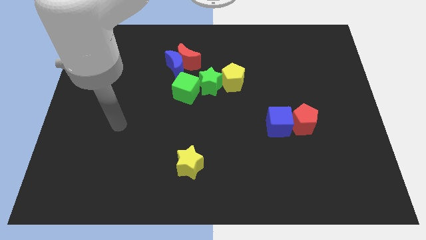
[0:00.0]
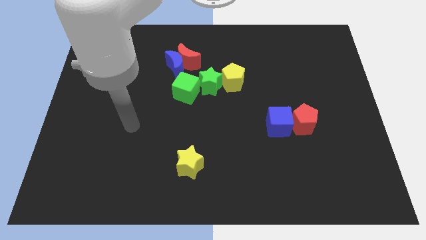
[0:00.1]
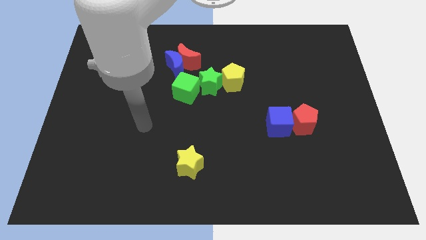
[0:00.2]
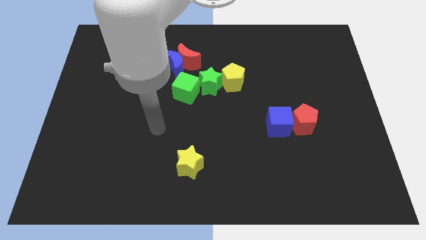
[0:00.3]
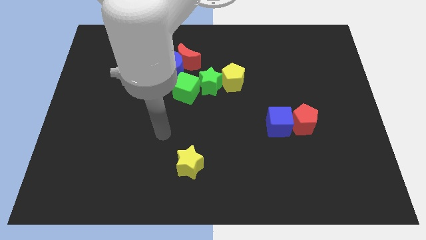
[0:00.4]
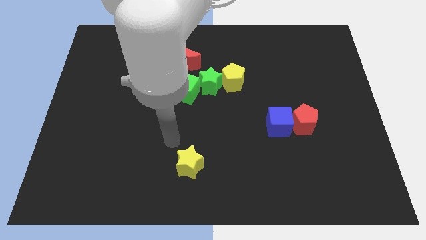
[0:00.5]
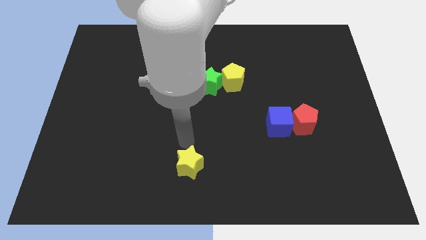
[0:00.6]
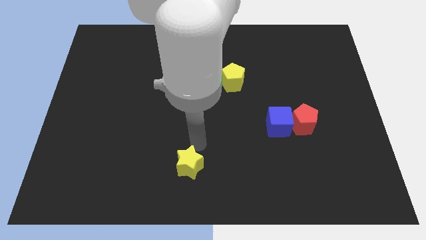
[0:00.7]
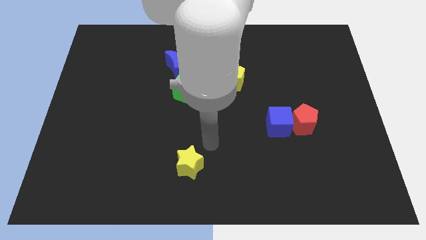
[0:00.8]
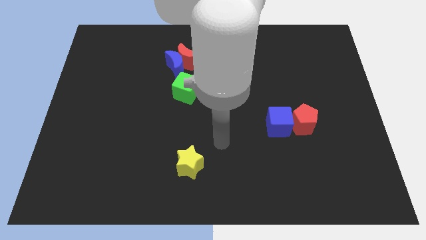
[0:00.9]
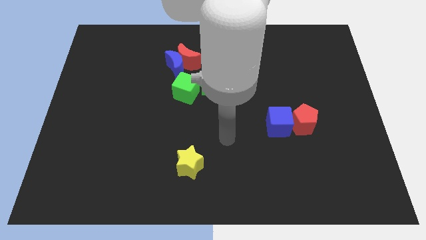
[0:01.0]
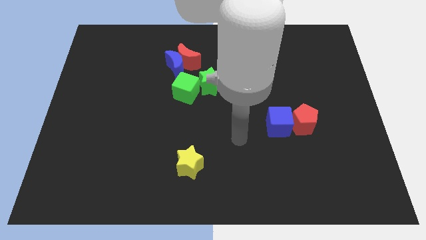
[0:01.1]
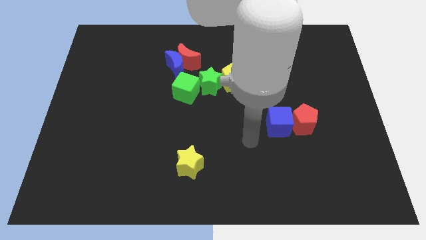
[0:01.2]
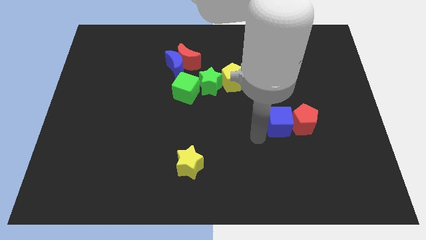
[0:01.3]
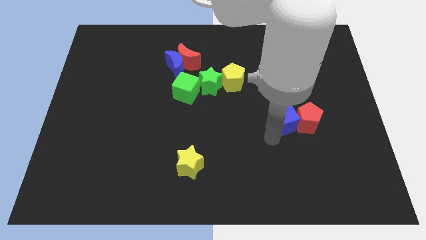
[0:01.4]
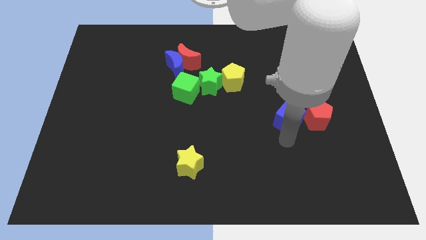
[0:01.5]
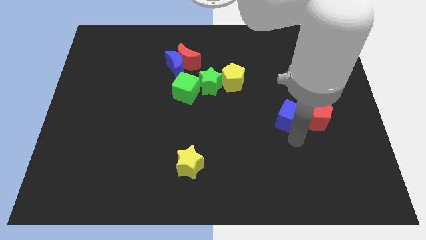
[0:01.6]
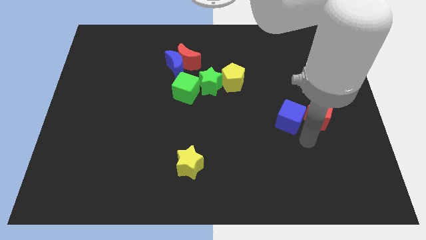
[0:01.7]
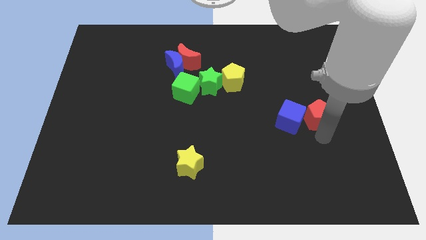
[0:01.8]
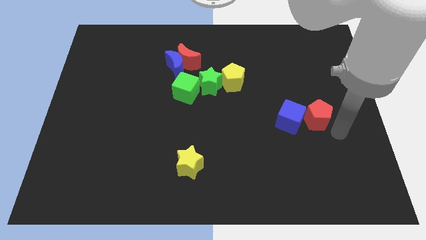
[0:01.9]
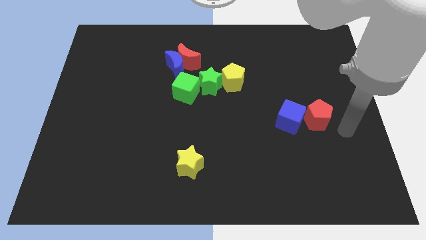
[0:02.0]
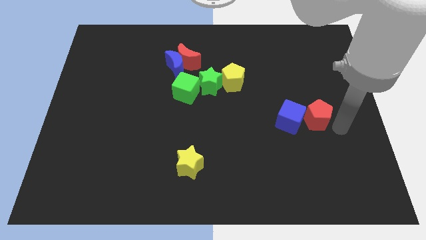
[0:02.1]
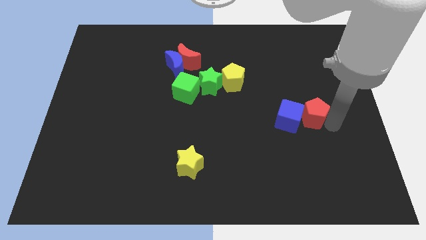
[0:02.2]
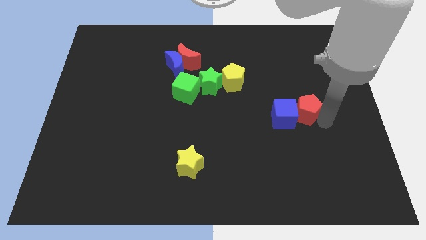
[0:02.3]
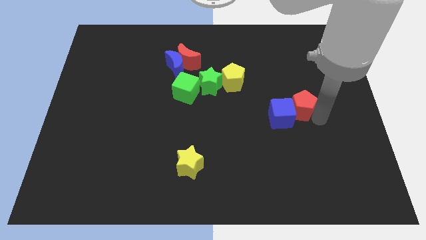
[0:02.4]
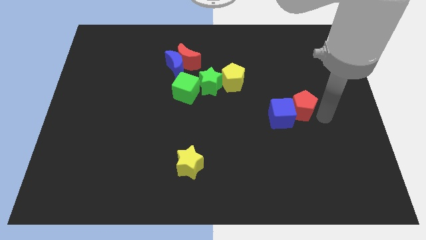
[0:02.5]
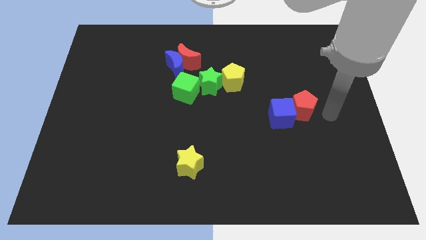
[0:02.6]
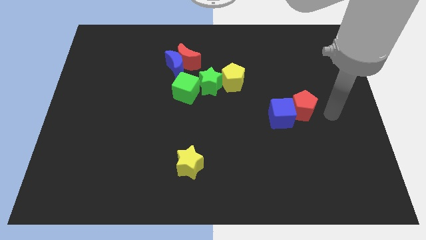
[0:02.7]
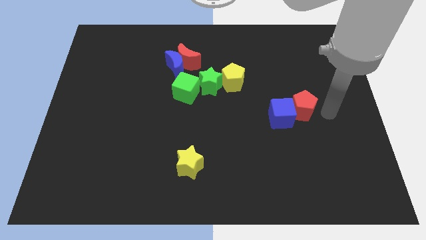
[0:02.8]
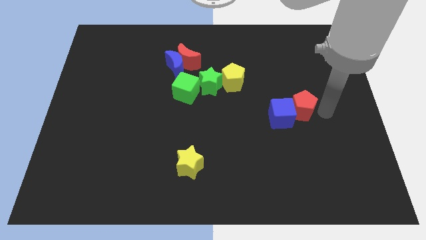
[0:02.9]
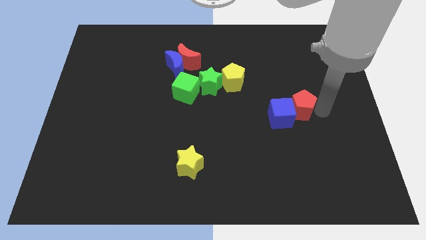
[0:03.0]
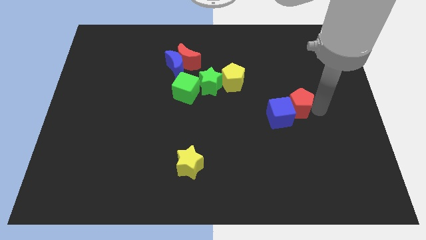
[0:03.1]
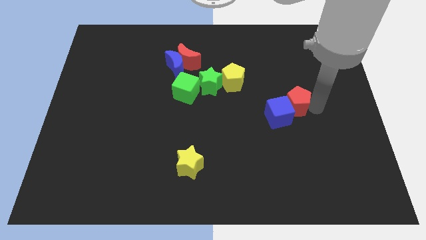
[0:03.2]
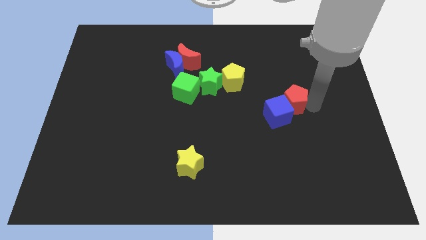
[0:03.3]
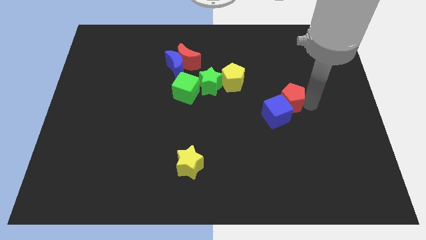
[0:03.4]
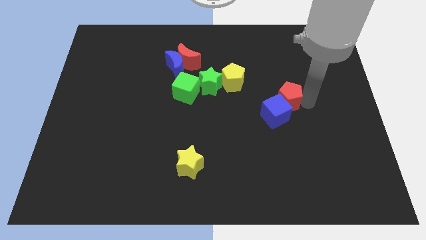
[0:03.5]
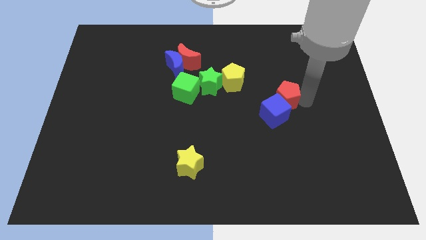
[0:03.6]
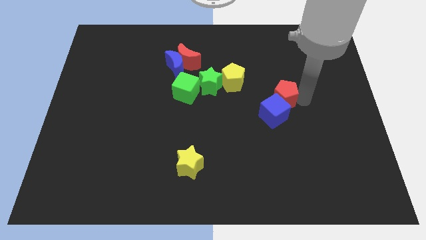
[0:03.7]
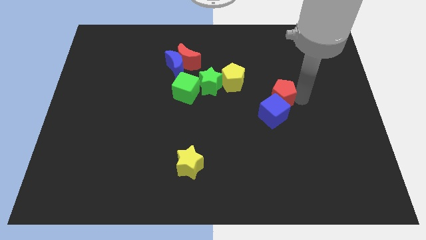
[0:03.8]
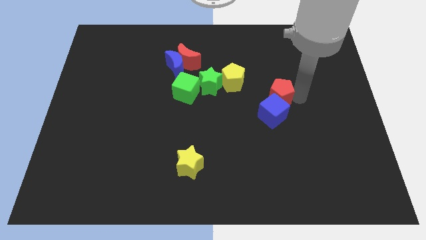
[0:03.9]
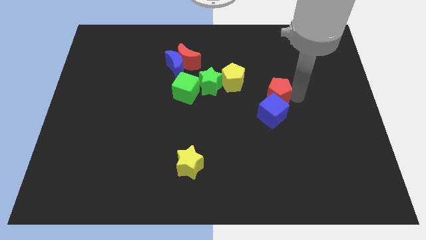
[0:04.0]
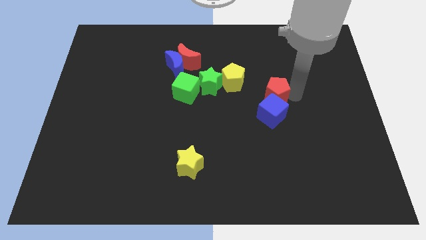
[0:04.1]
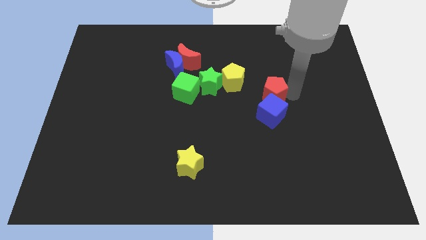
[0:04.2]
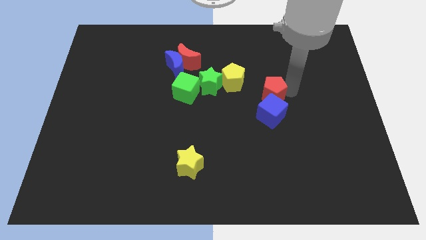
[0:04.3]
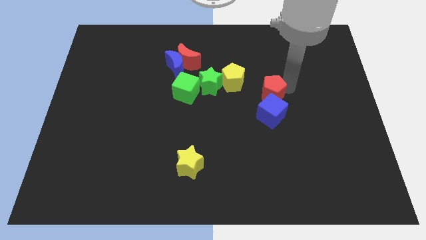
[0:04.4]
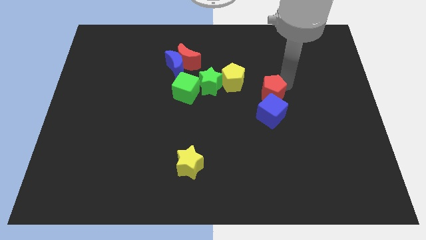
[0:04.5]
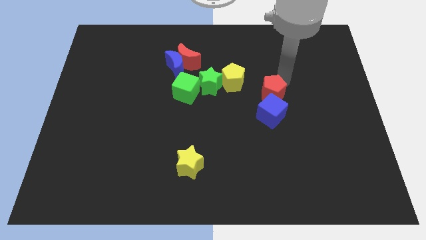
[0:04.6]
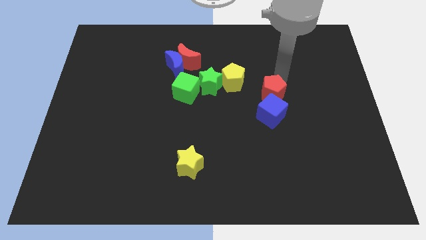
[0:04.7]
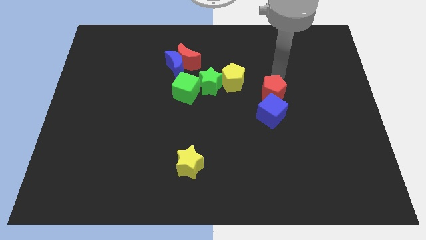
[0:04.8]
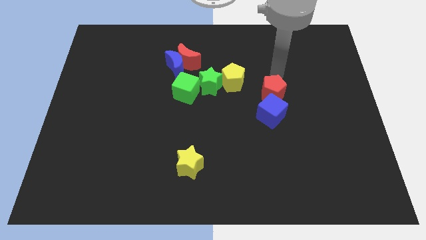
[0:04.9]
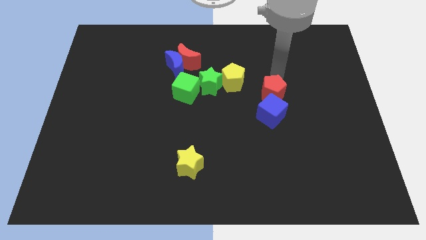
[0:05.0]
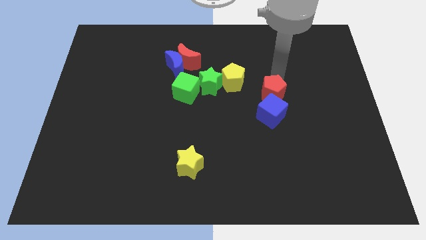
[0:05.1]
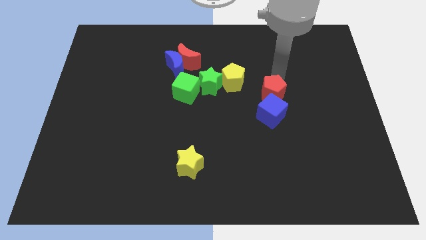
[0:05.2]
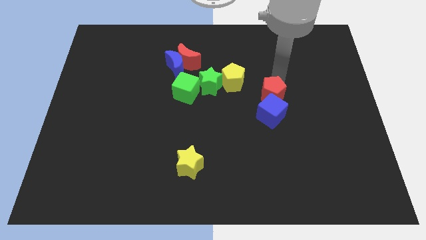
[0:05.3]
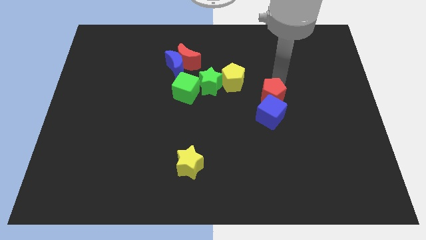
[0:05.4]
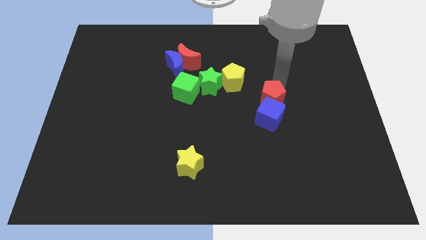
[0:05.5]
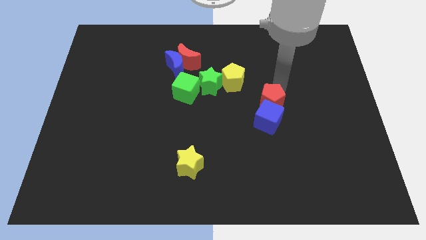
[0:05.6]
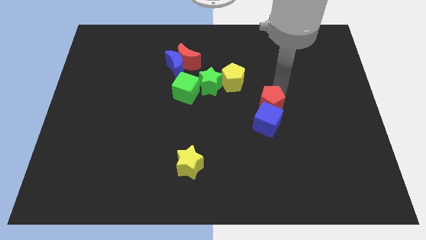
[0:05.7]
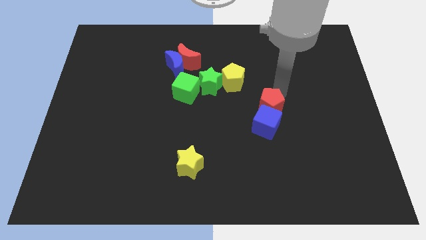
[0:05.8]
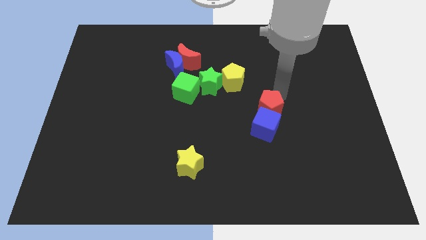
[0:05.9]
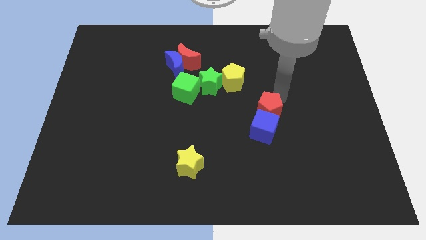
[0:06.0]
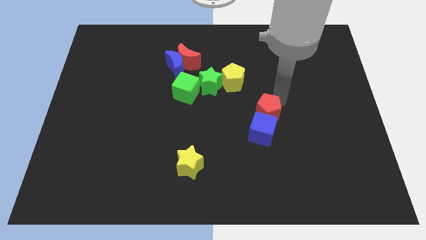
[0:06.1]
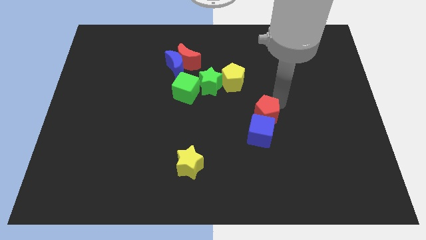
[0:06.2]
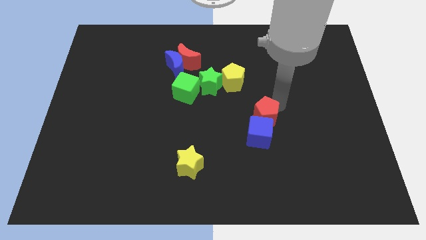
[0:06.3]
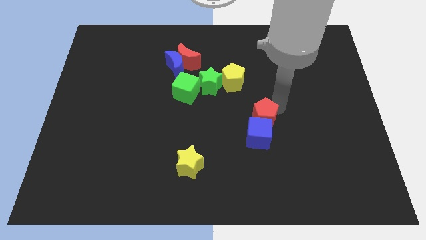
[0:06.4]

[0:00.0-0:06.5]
move the red pentagon to the middle
